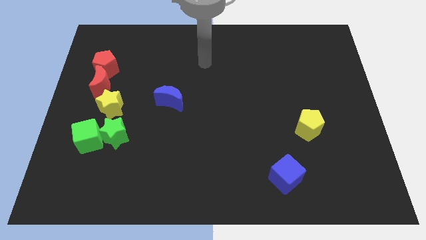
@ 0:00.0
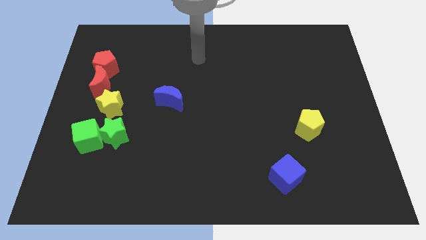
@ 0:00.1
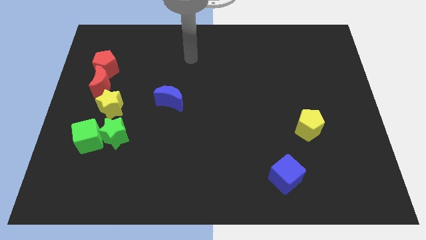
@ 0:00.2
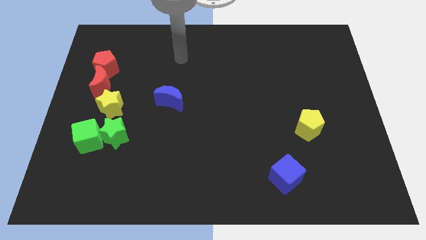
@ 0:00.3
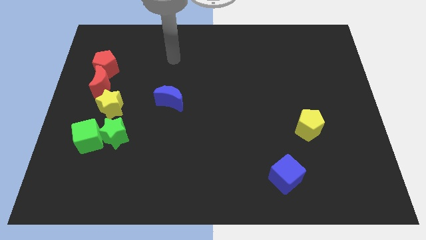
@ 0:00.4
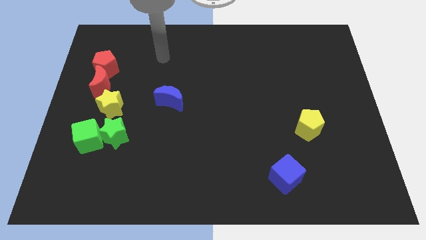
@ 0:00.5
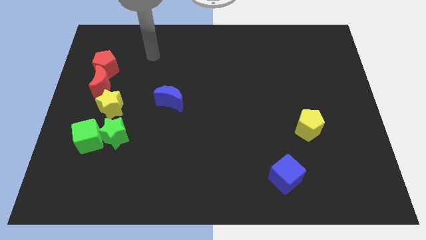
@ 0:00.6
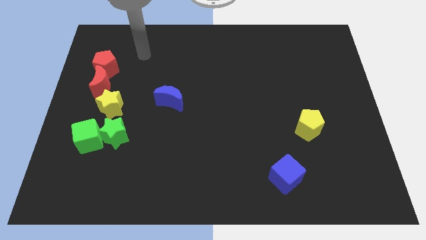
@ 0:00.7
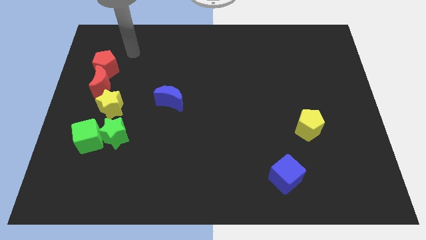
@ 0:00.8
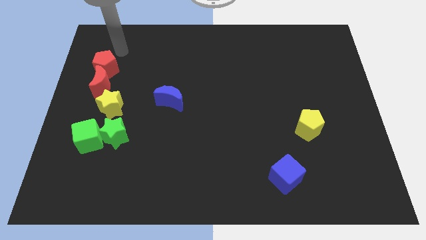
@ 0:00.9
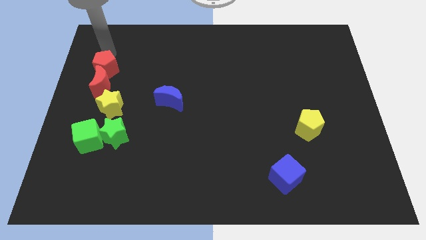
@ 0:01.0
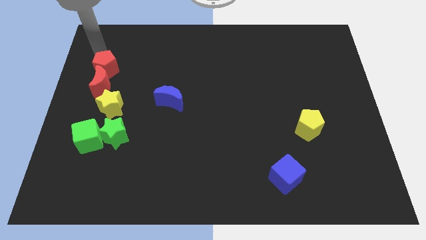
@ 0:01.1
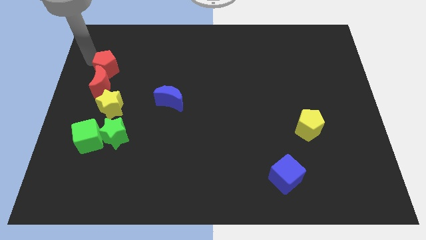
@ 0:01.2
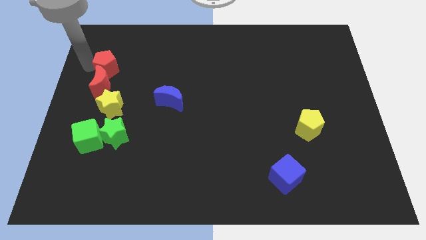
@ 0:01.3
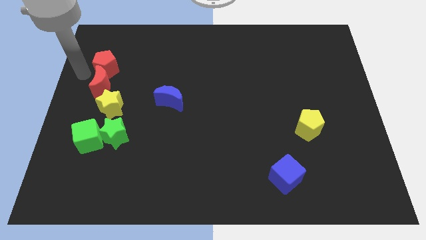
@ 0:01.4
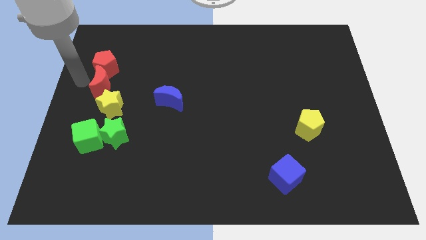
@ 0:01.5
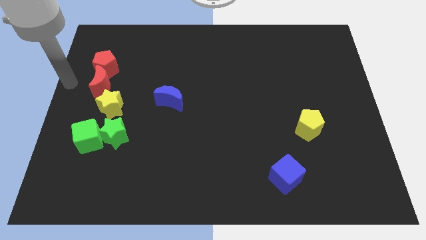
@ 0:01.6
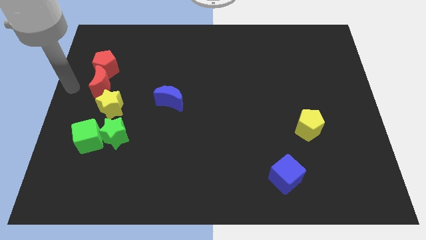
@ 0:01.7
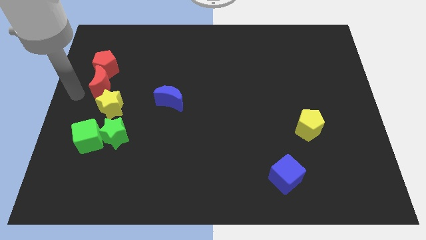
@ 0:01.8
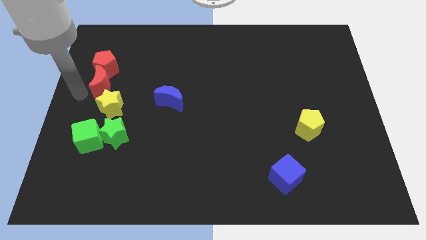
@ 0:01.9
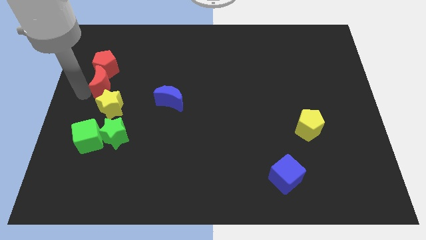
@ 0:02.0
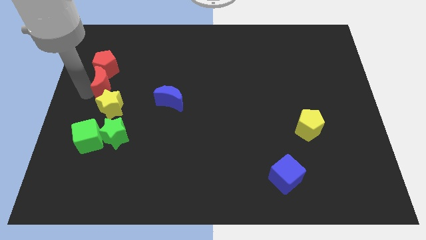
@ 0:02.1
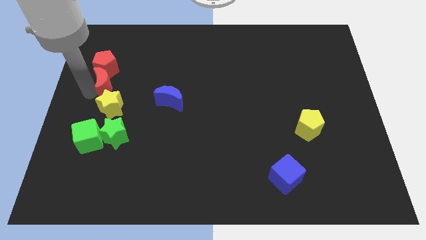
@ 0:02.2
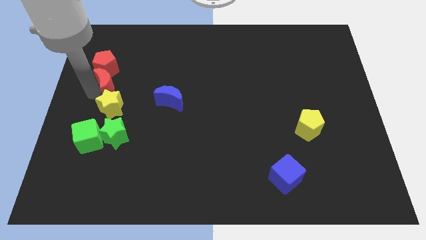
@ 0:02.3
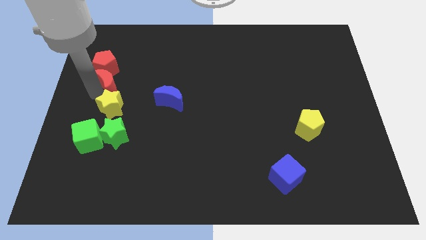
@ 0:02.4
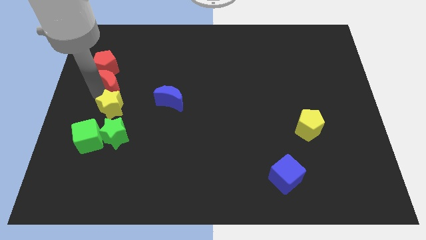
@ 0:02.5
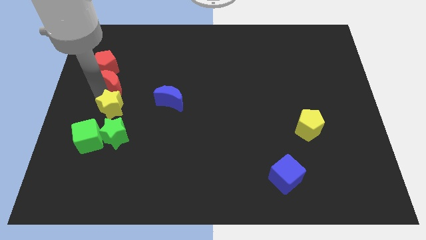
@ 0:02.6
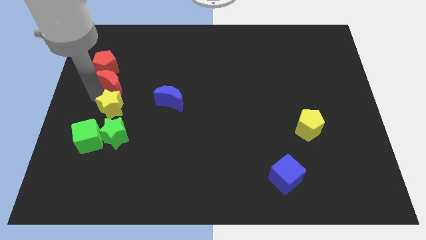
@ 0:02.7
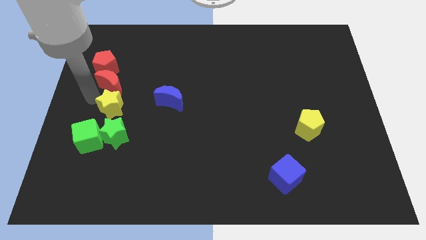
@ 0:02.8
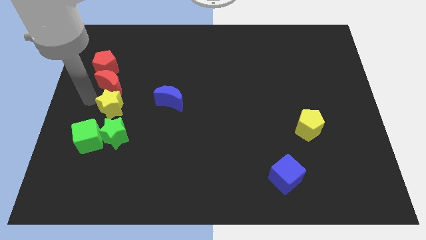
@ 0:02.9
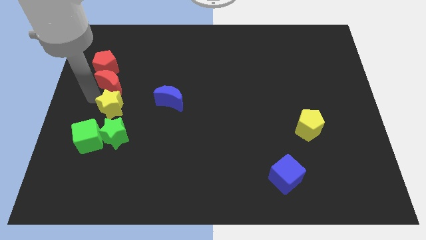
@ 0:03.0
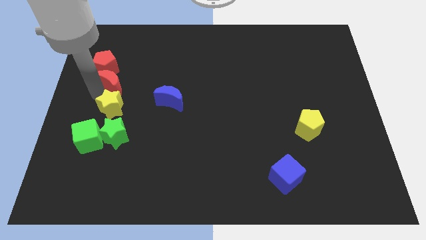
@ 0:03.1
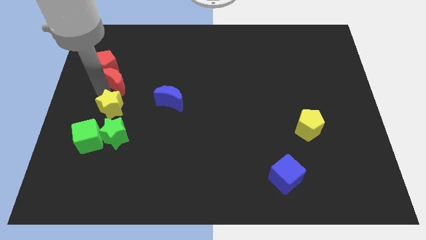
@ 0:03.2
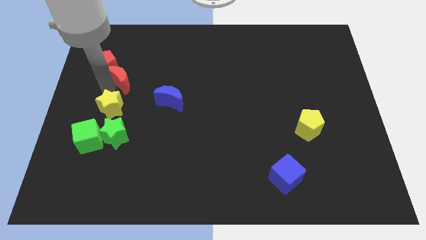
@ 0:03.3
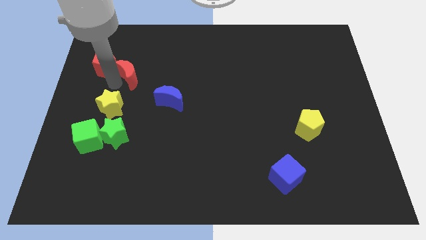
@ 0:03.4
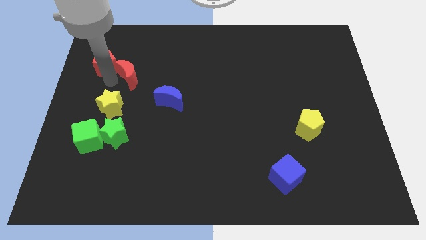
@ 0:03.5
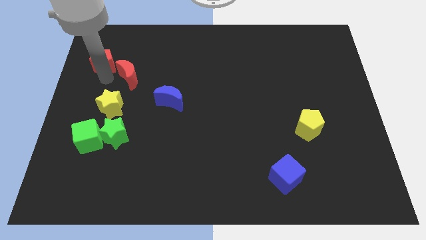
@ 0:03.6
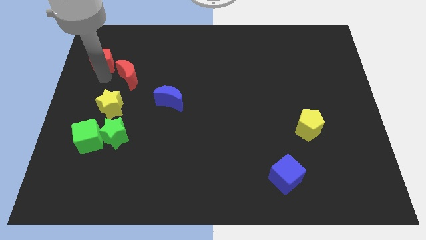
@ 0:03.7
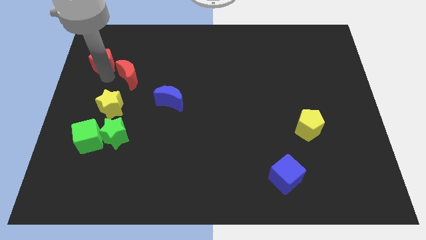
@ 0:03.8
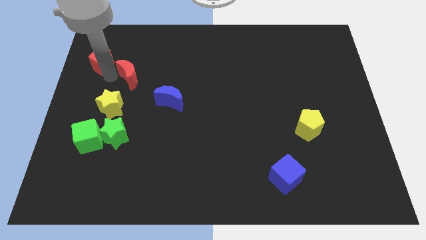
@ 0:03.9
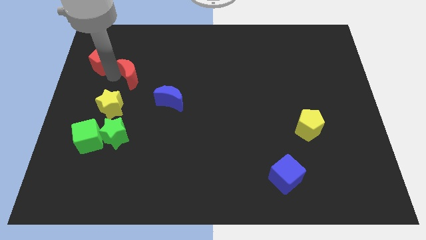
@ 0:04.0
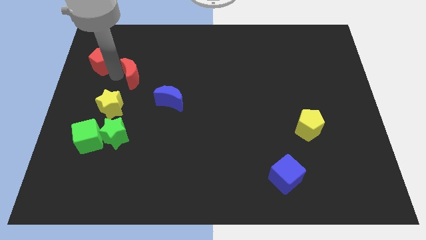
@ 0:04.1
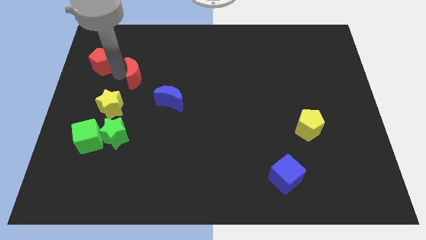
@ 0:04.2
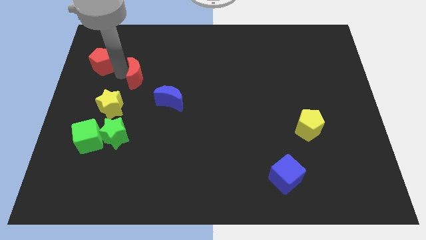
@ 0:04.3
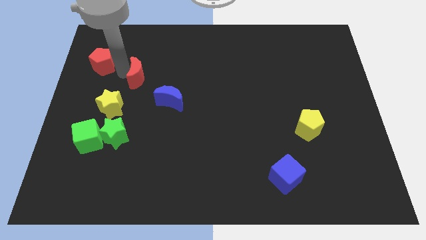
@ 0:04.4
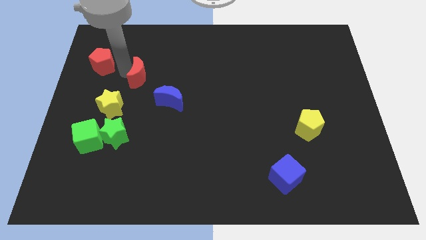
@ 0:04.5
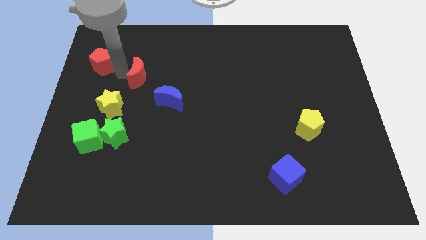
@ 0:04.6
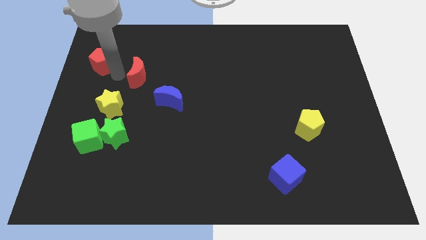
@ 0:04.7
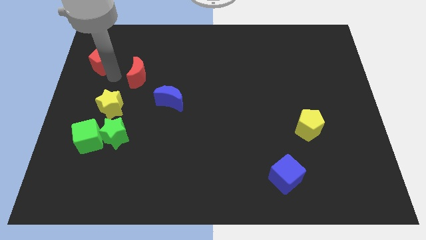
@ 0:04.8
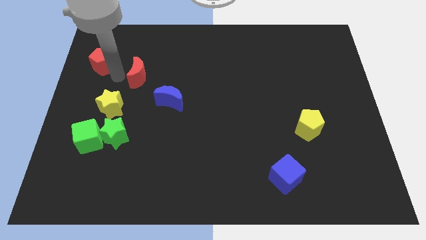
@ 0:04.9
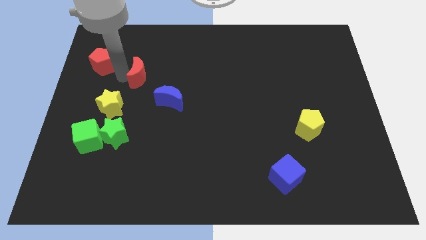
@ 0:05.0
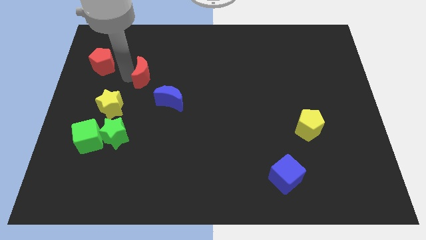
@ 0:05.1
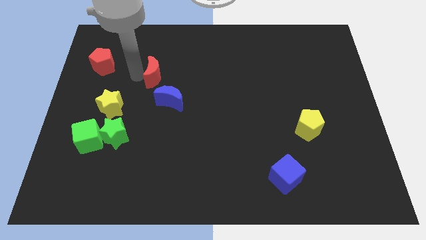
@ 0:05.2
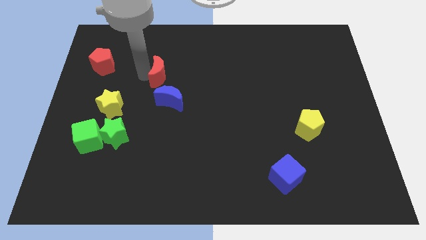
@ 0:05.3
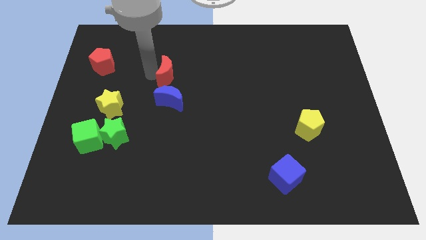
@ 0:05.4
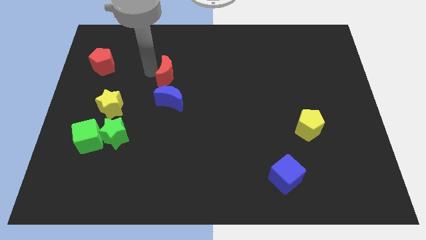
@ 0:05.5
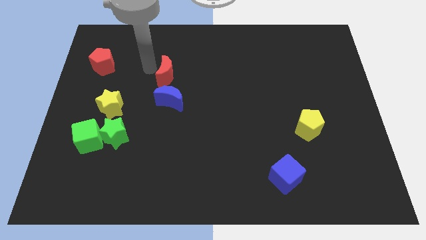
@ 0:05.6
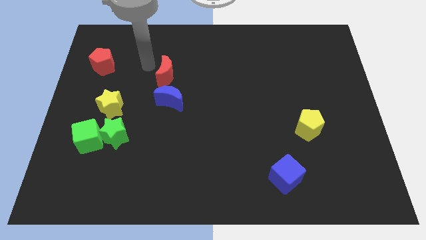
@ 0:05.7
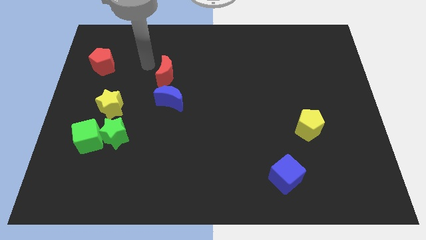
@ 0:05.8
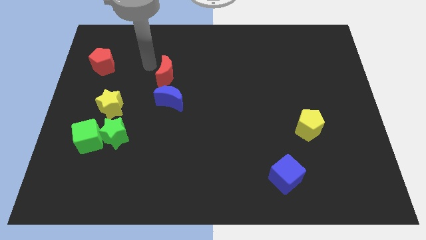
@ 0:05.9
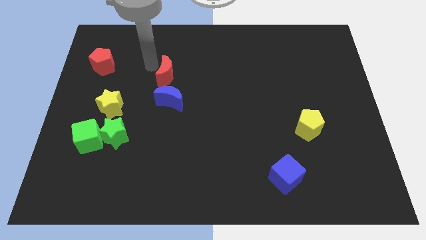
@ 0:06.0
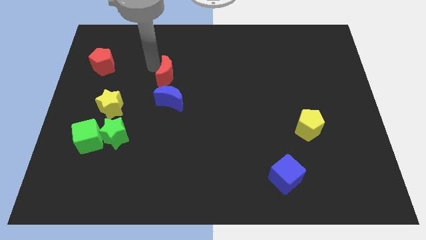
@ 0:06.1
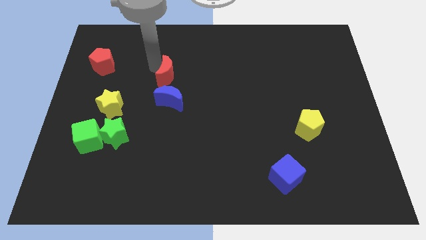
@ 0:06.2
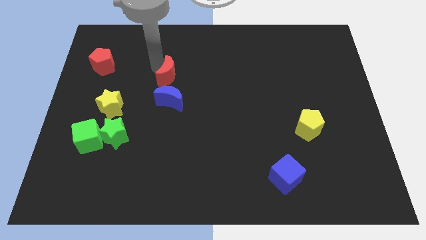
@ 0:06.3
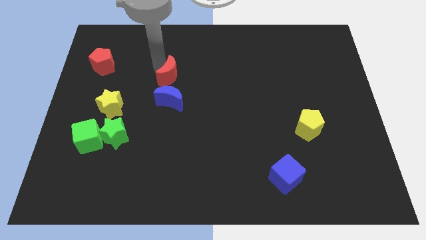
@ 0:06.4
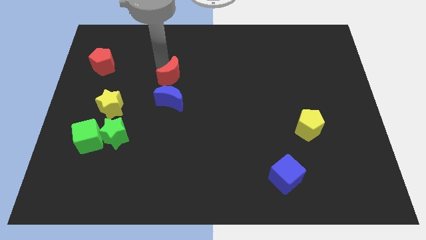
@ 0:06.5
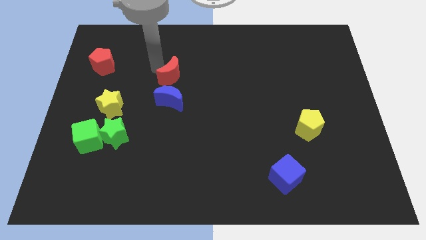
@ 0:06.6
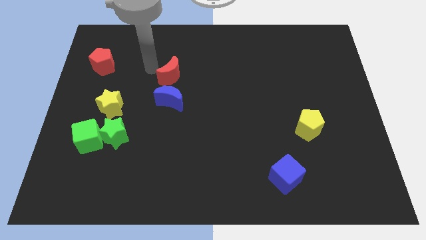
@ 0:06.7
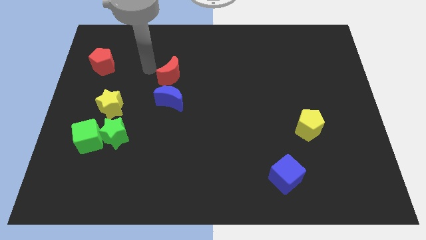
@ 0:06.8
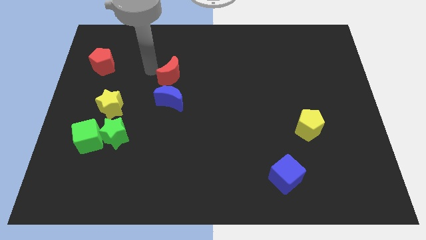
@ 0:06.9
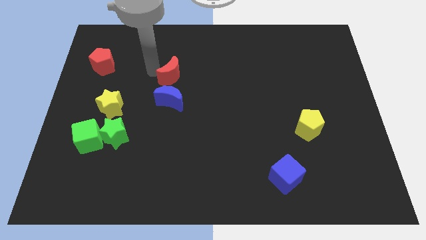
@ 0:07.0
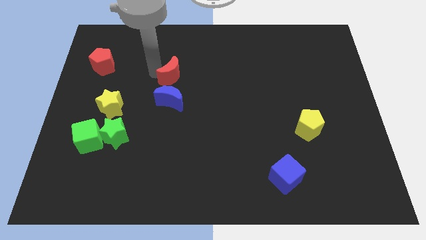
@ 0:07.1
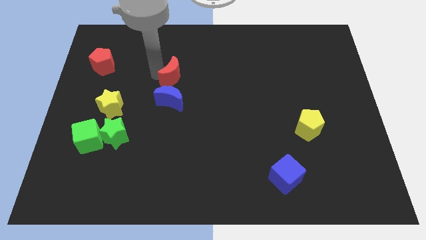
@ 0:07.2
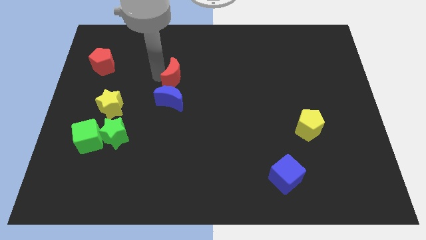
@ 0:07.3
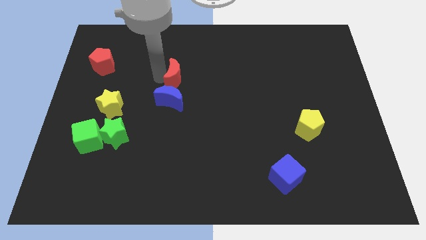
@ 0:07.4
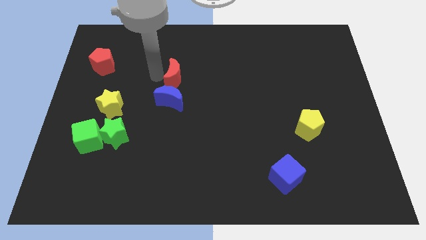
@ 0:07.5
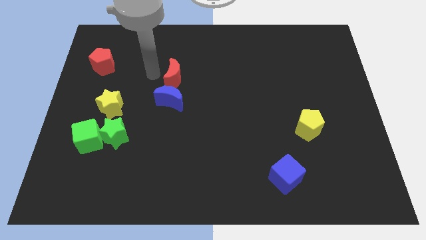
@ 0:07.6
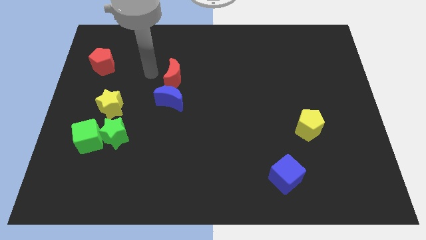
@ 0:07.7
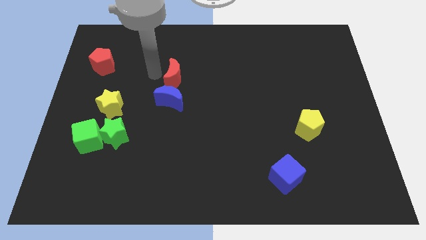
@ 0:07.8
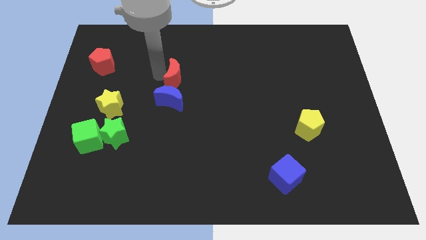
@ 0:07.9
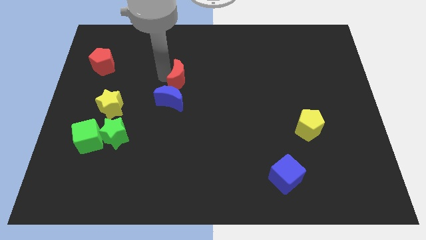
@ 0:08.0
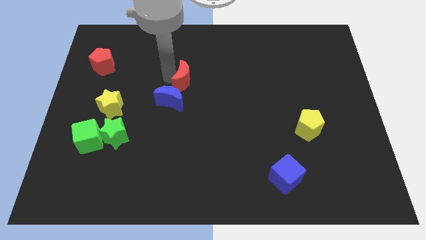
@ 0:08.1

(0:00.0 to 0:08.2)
move the red moon to the right

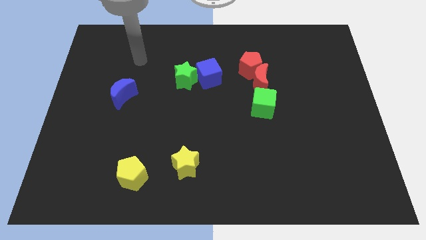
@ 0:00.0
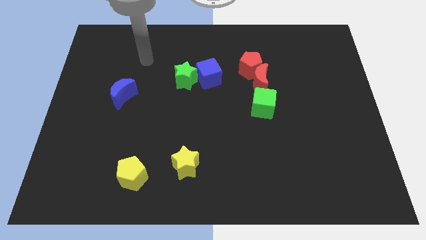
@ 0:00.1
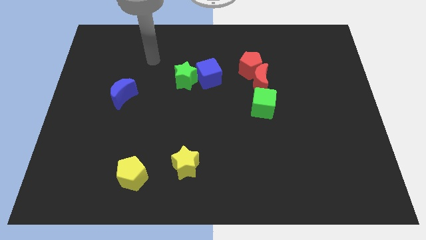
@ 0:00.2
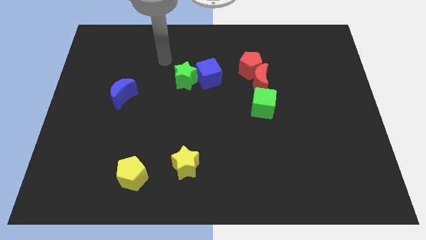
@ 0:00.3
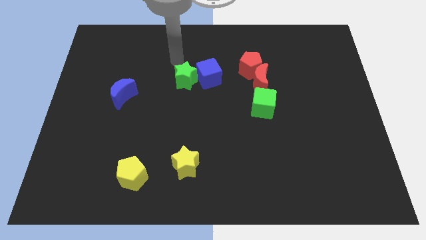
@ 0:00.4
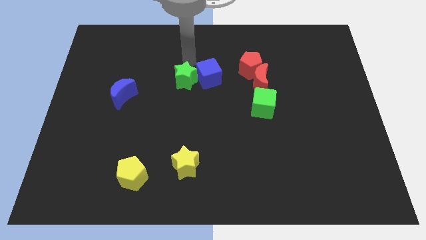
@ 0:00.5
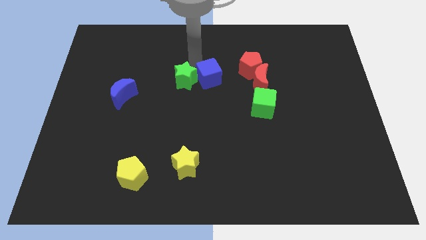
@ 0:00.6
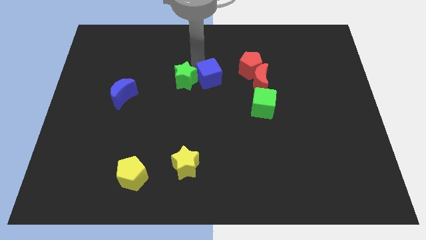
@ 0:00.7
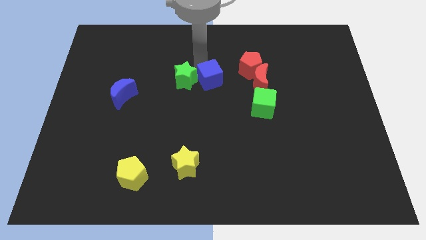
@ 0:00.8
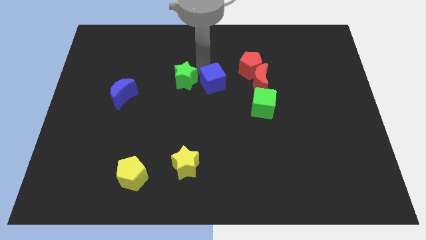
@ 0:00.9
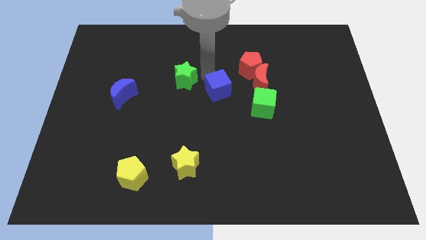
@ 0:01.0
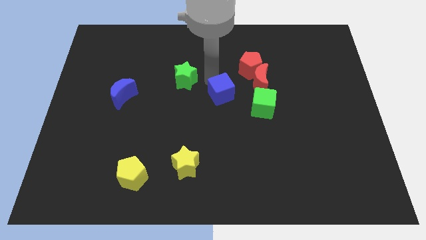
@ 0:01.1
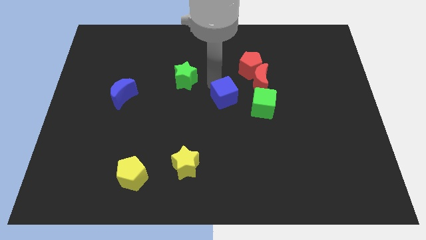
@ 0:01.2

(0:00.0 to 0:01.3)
slide the blue cube diagonally downwards and right slightly
